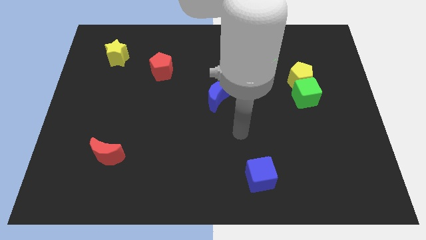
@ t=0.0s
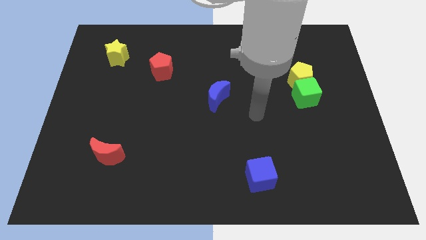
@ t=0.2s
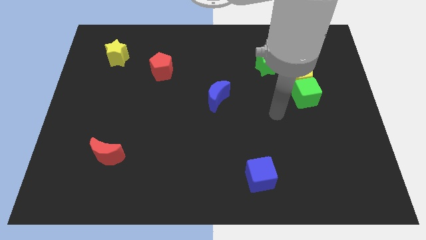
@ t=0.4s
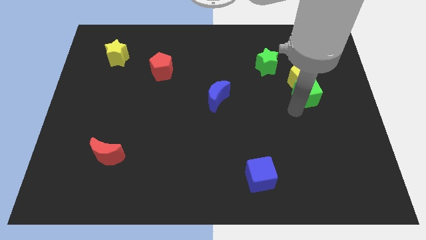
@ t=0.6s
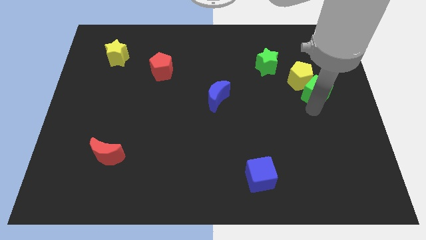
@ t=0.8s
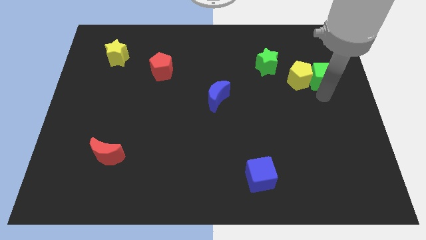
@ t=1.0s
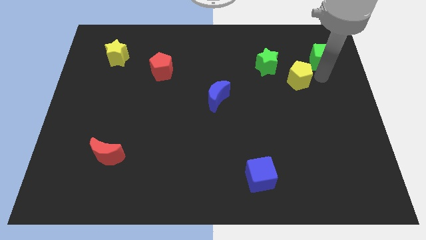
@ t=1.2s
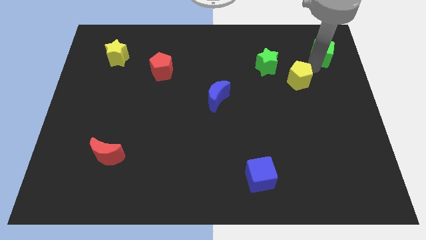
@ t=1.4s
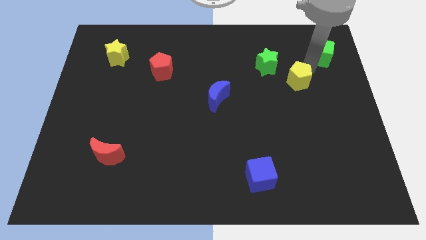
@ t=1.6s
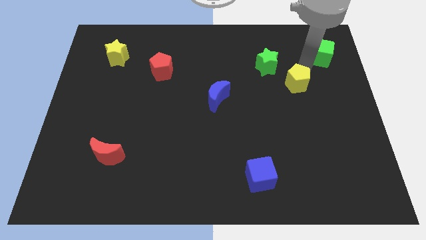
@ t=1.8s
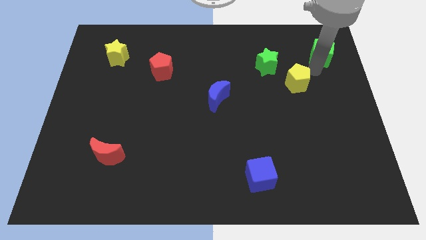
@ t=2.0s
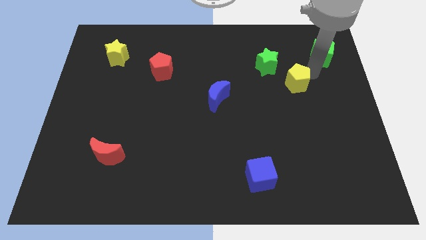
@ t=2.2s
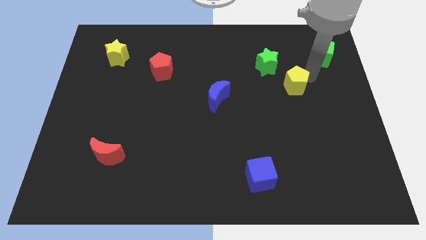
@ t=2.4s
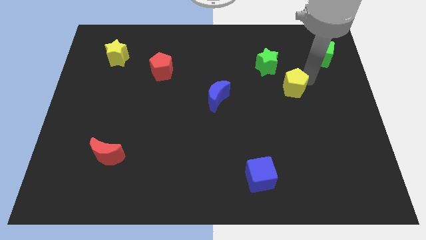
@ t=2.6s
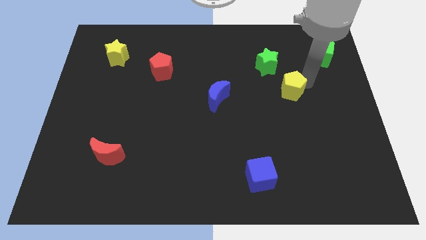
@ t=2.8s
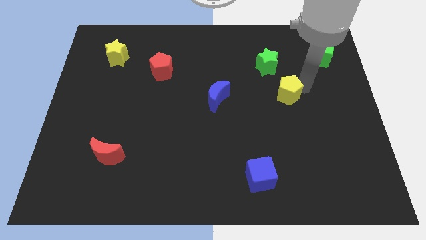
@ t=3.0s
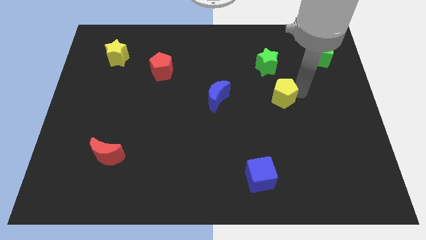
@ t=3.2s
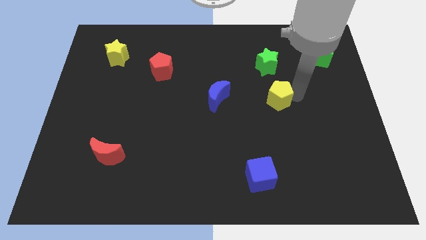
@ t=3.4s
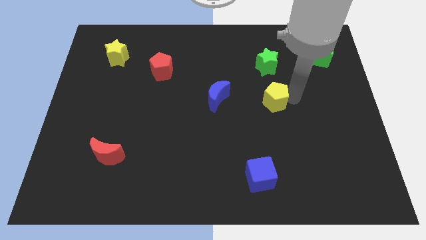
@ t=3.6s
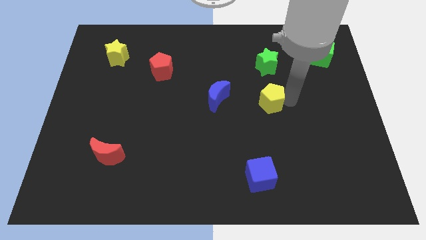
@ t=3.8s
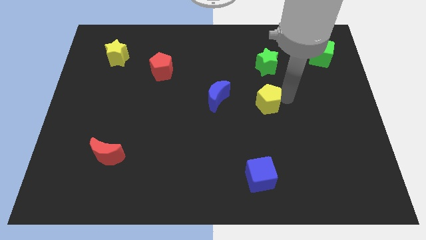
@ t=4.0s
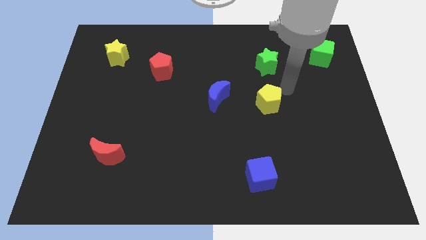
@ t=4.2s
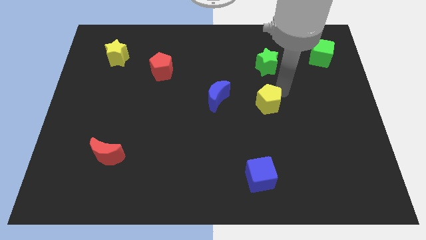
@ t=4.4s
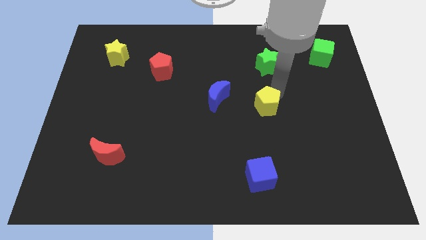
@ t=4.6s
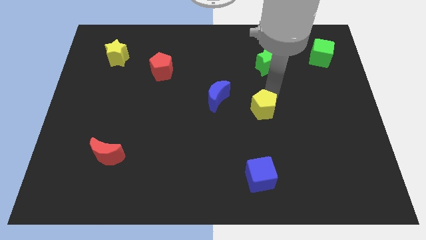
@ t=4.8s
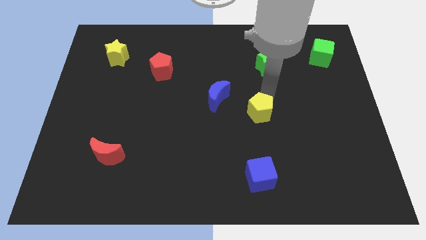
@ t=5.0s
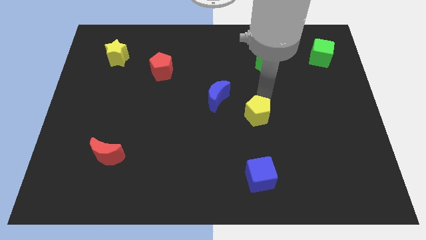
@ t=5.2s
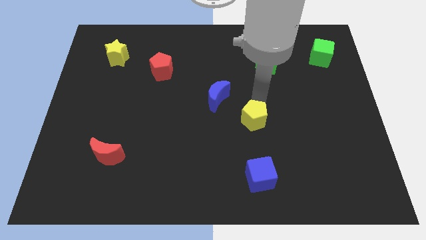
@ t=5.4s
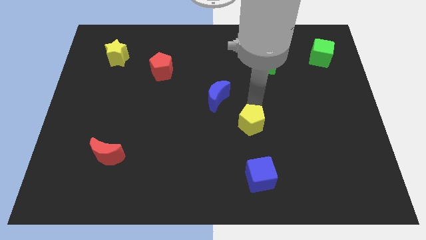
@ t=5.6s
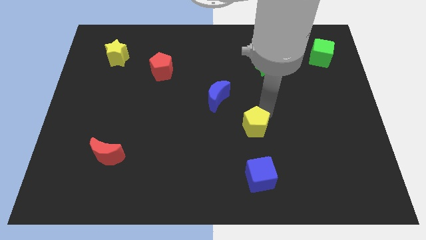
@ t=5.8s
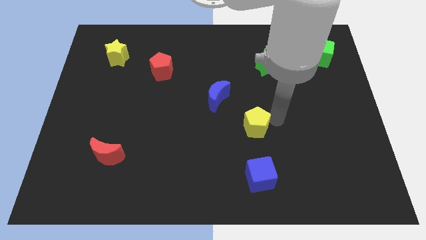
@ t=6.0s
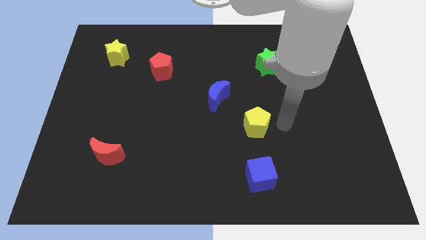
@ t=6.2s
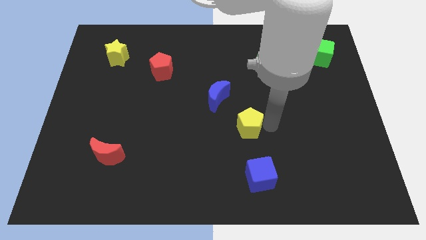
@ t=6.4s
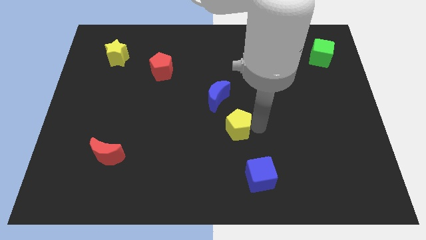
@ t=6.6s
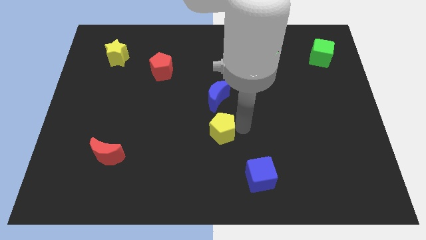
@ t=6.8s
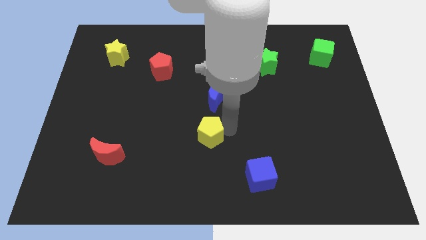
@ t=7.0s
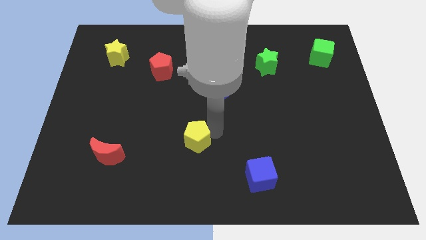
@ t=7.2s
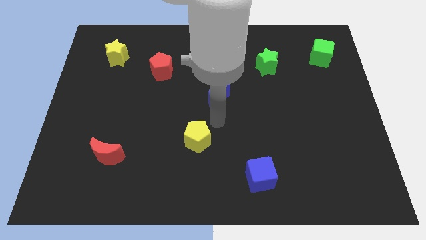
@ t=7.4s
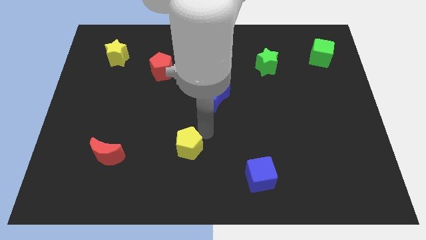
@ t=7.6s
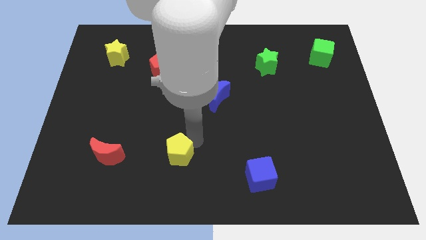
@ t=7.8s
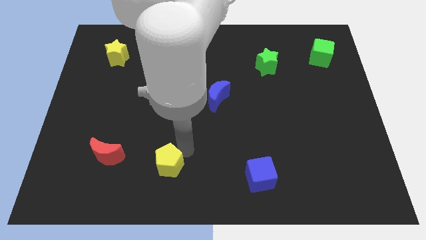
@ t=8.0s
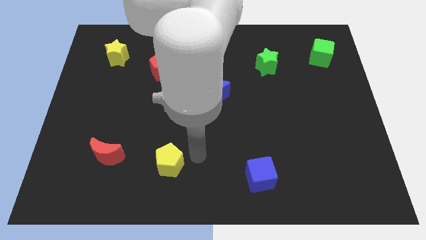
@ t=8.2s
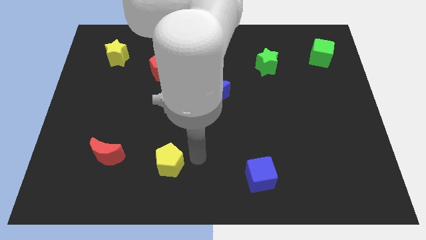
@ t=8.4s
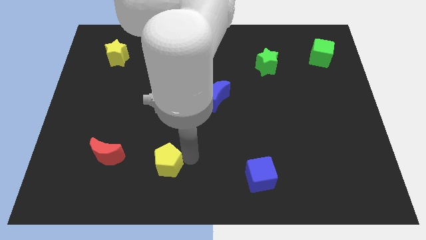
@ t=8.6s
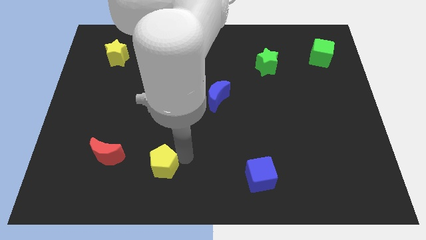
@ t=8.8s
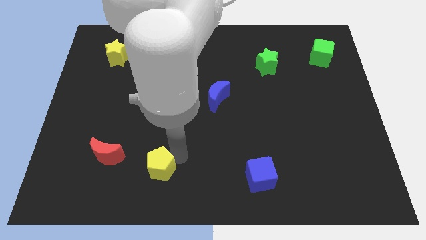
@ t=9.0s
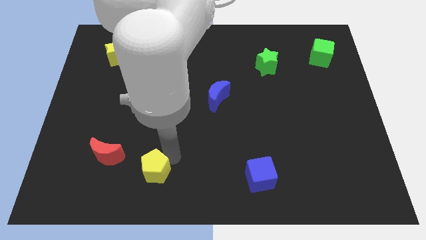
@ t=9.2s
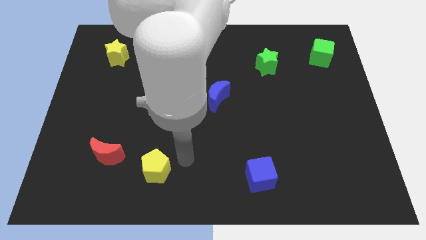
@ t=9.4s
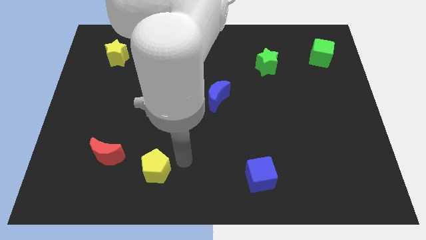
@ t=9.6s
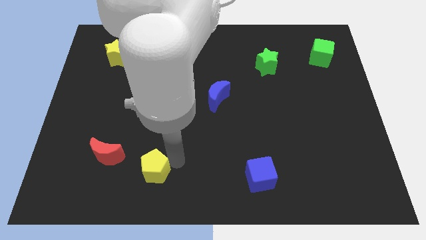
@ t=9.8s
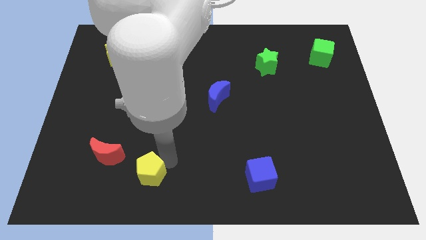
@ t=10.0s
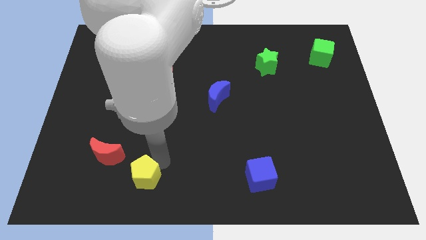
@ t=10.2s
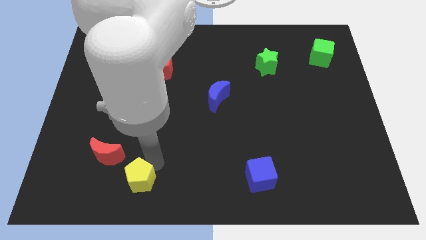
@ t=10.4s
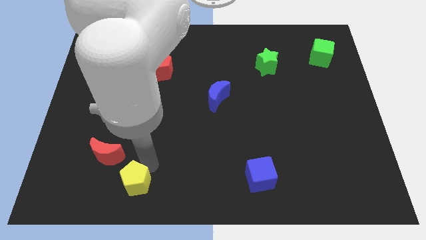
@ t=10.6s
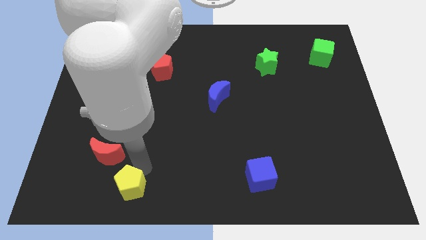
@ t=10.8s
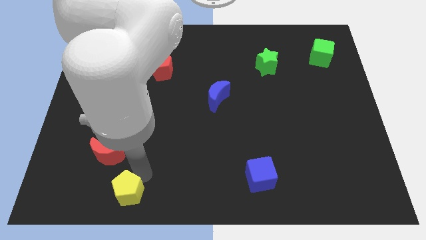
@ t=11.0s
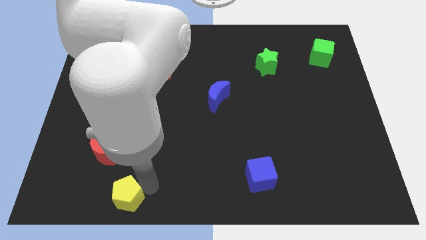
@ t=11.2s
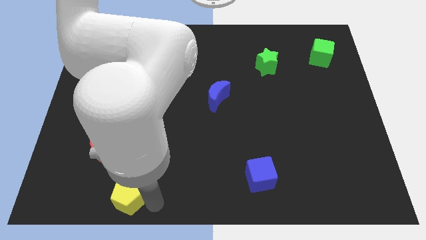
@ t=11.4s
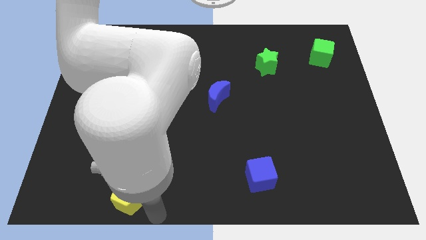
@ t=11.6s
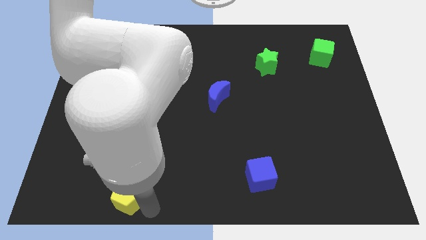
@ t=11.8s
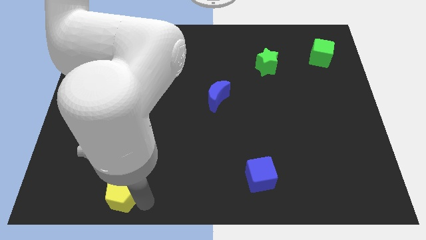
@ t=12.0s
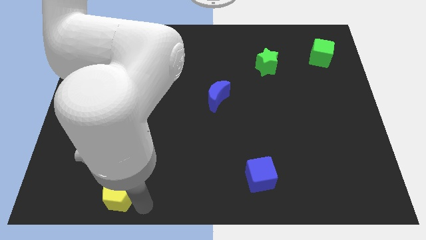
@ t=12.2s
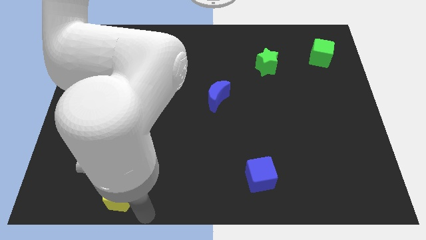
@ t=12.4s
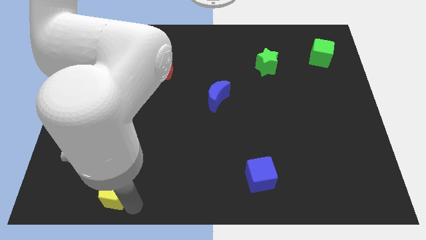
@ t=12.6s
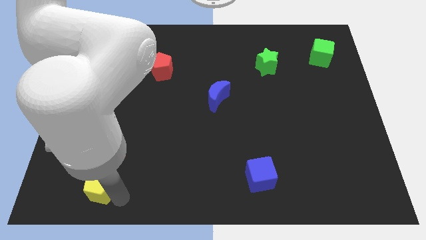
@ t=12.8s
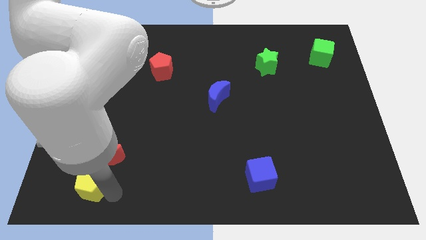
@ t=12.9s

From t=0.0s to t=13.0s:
slide the yellow pentagon to the bottom left side of the red moon

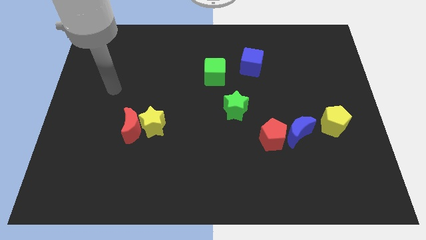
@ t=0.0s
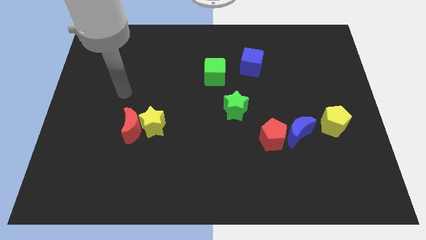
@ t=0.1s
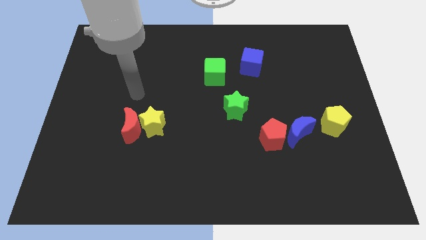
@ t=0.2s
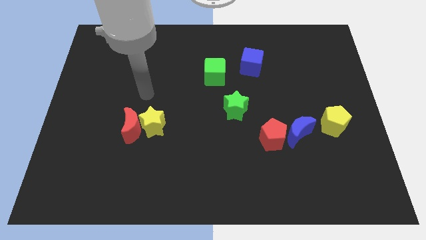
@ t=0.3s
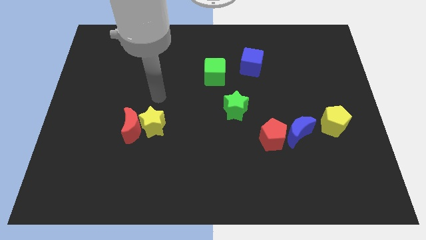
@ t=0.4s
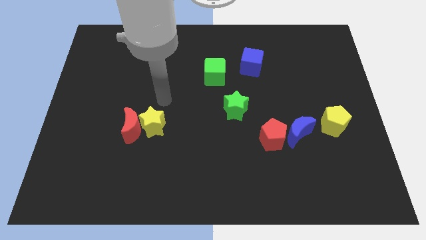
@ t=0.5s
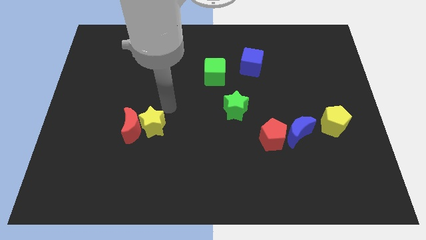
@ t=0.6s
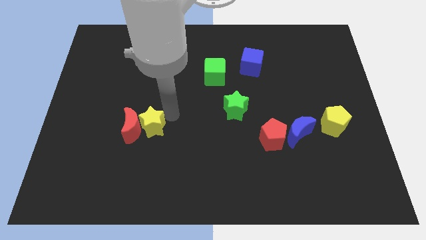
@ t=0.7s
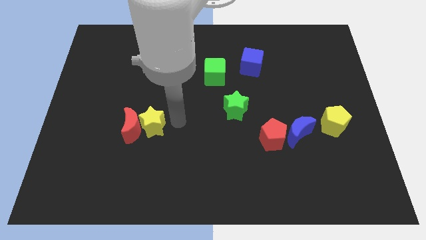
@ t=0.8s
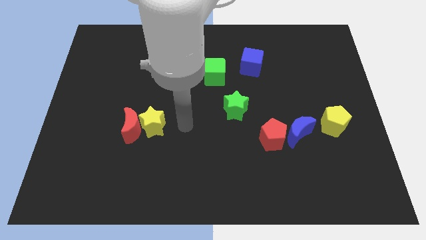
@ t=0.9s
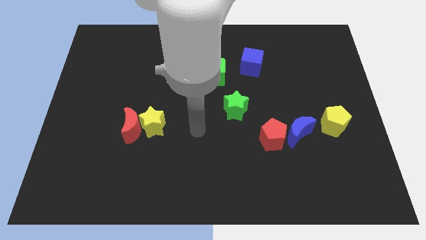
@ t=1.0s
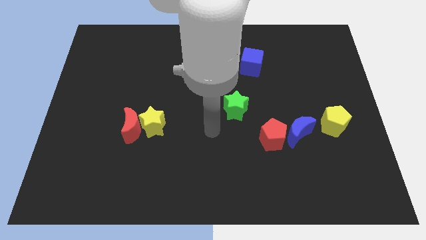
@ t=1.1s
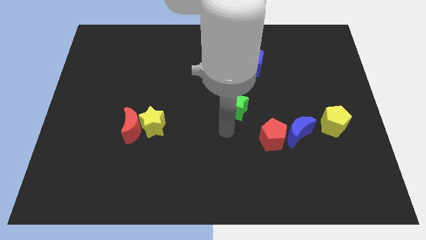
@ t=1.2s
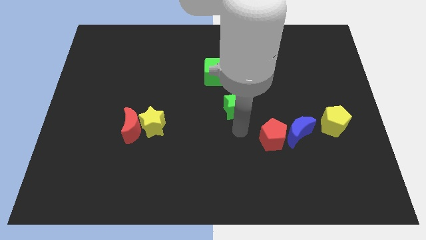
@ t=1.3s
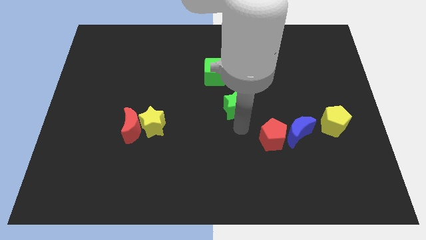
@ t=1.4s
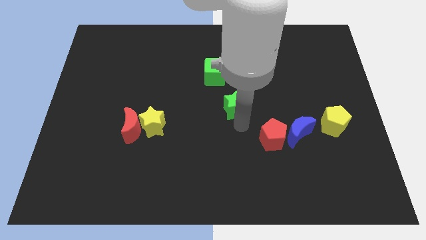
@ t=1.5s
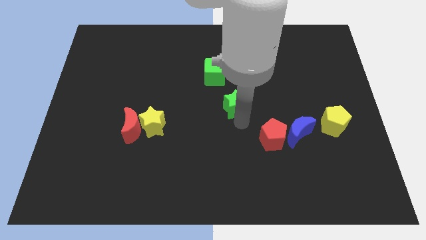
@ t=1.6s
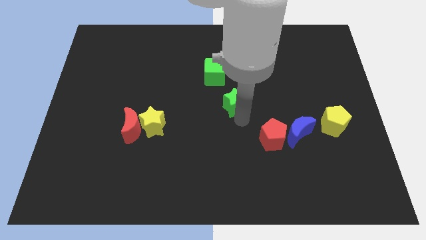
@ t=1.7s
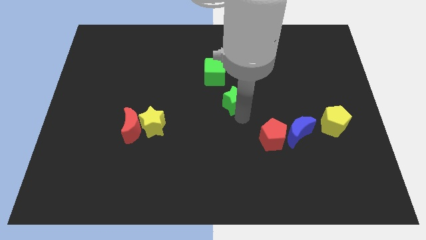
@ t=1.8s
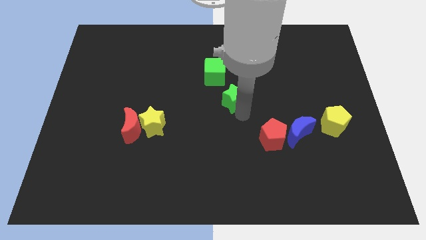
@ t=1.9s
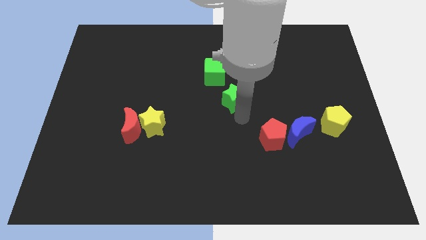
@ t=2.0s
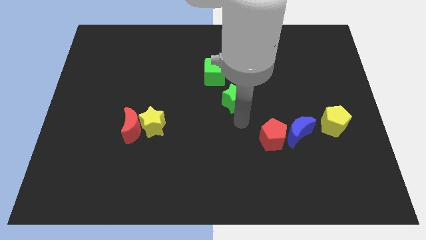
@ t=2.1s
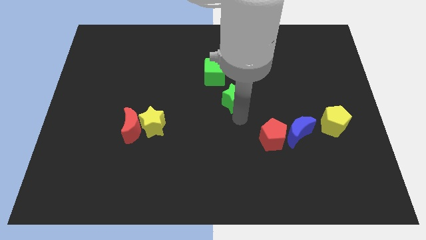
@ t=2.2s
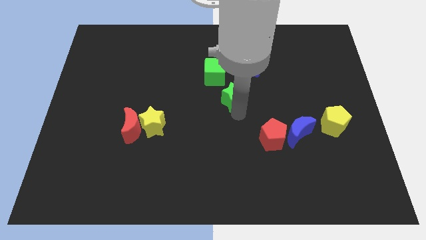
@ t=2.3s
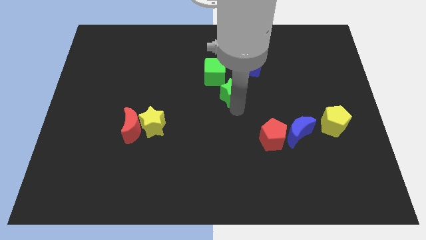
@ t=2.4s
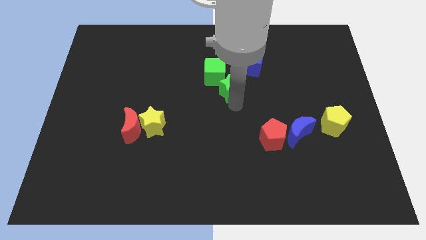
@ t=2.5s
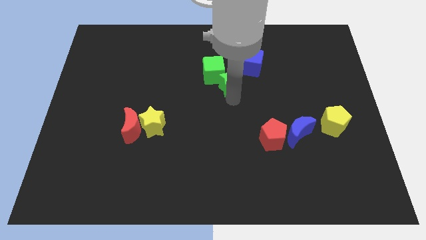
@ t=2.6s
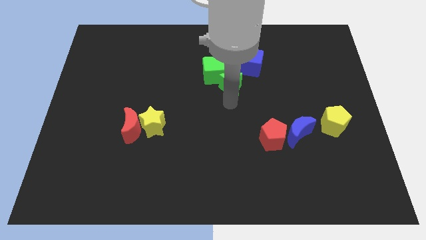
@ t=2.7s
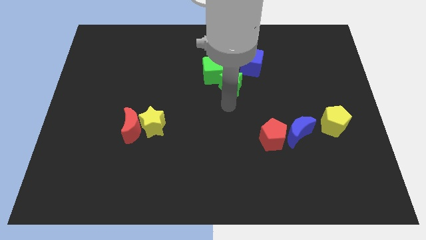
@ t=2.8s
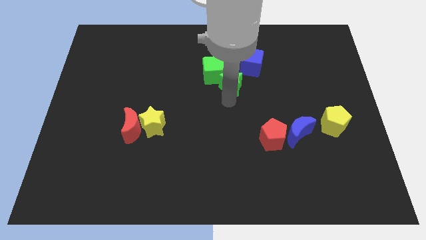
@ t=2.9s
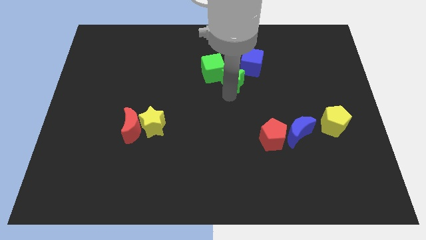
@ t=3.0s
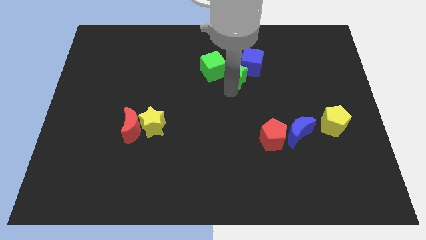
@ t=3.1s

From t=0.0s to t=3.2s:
push the green star to the left of the blue cube
